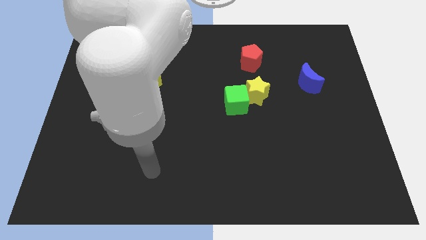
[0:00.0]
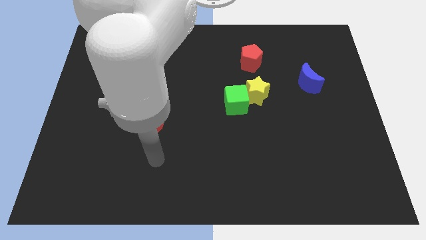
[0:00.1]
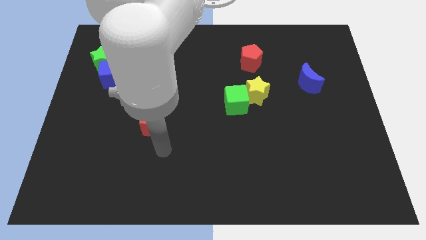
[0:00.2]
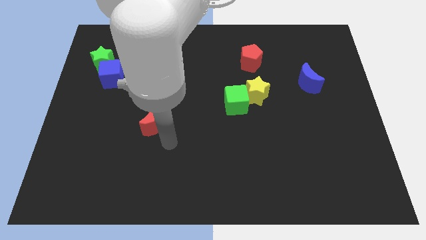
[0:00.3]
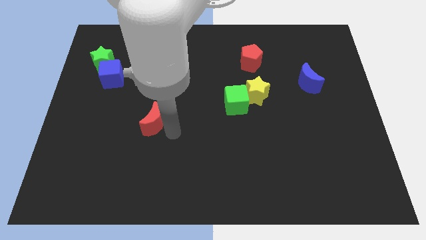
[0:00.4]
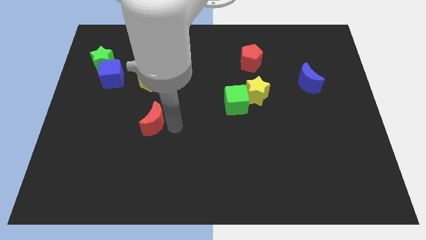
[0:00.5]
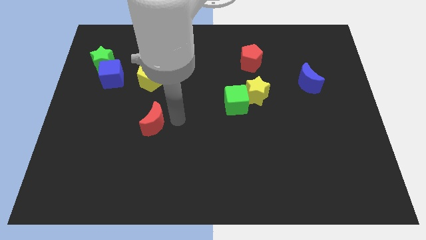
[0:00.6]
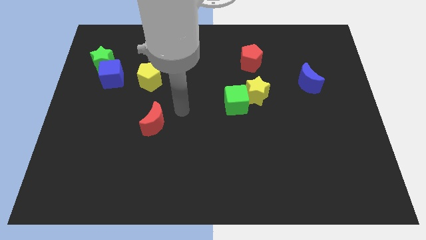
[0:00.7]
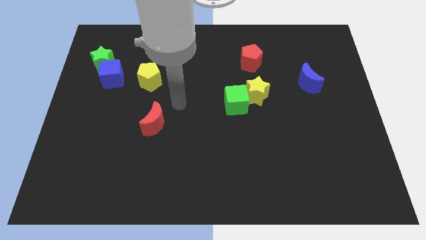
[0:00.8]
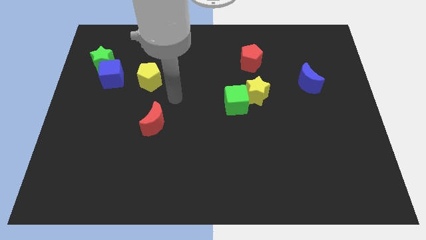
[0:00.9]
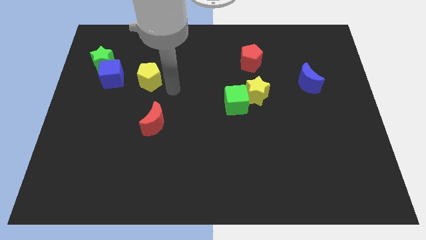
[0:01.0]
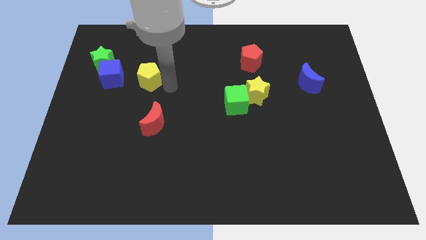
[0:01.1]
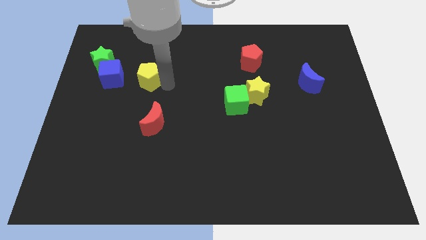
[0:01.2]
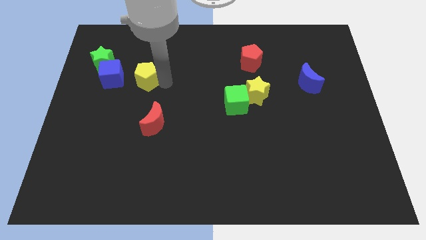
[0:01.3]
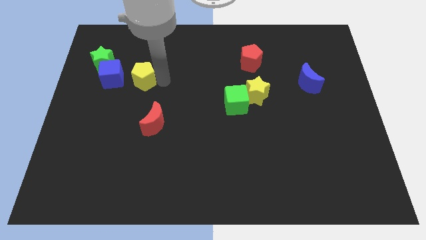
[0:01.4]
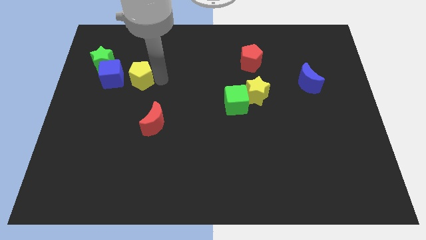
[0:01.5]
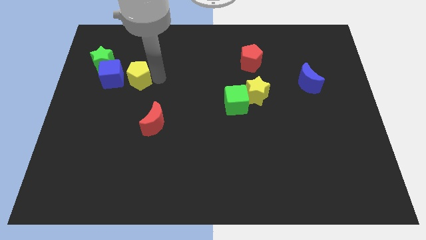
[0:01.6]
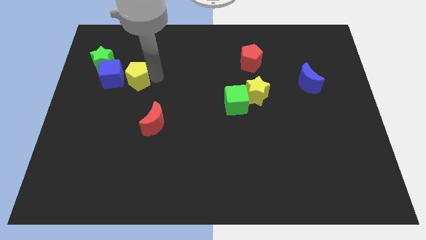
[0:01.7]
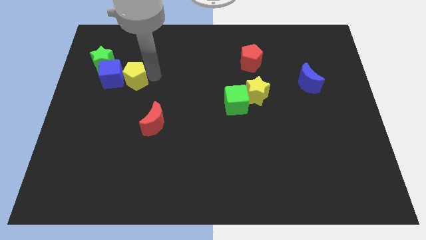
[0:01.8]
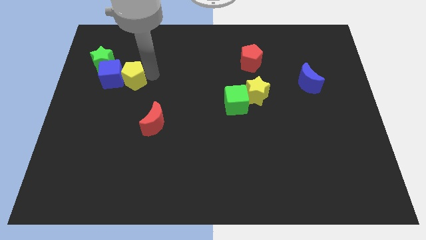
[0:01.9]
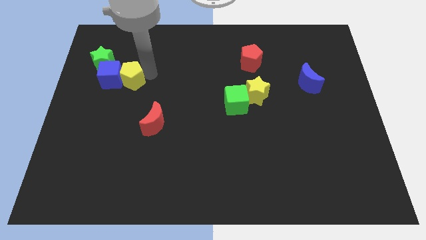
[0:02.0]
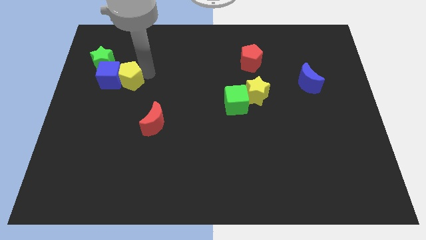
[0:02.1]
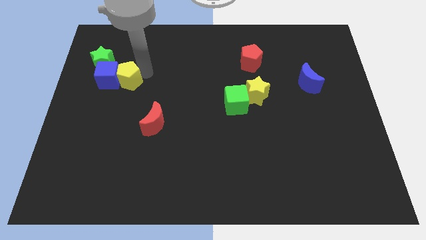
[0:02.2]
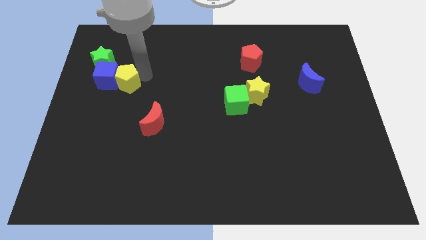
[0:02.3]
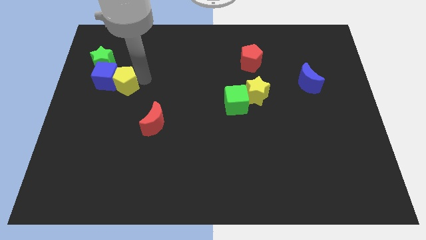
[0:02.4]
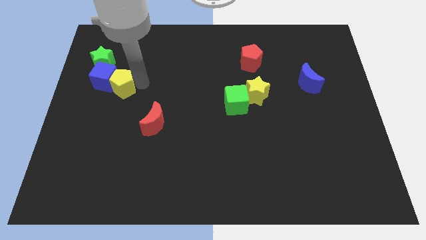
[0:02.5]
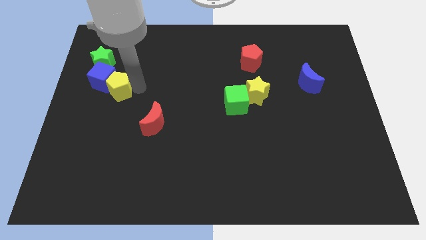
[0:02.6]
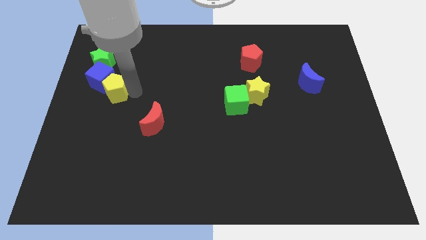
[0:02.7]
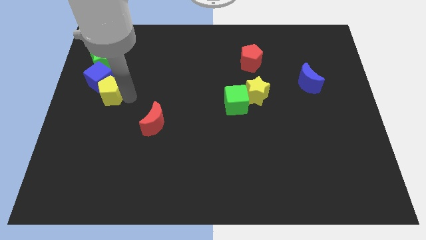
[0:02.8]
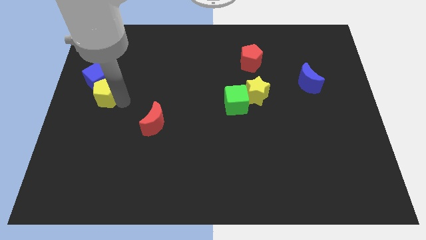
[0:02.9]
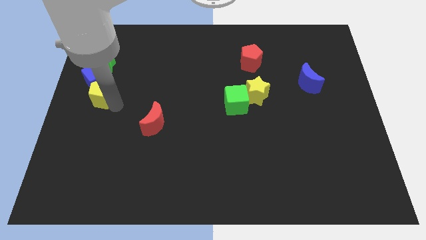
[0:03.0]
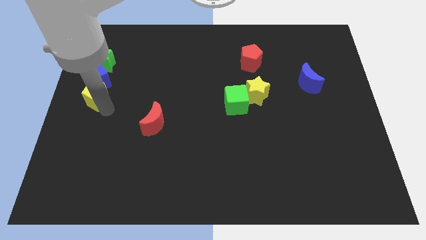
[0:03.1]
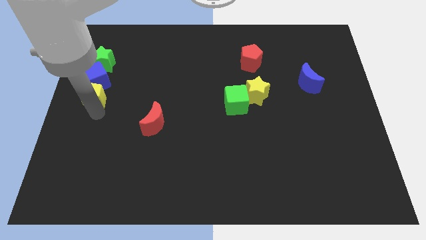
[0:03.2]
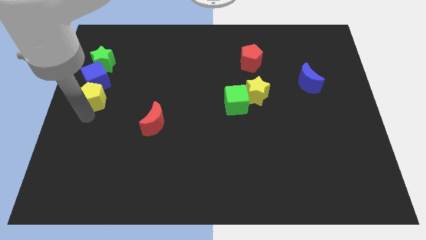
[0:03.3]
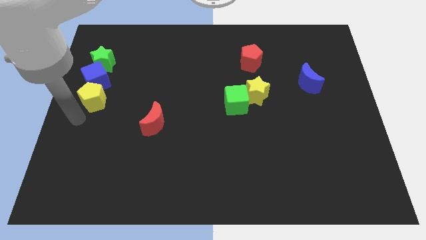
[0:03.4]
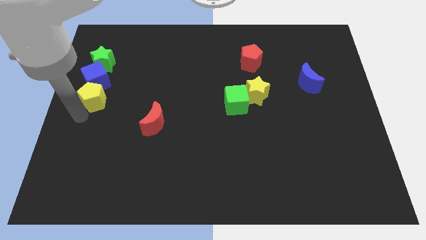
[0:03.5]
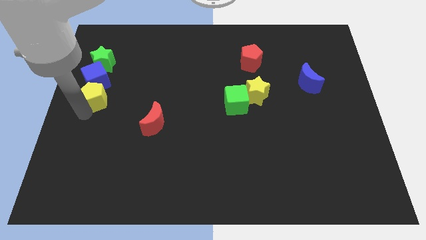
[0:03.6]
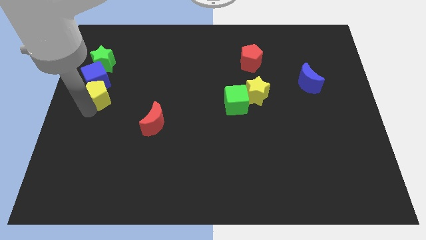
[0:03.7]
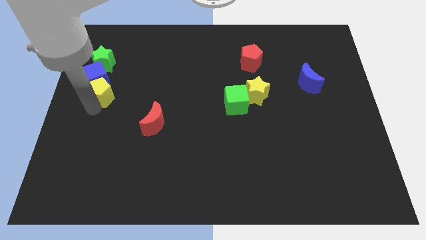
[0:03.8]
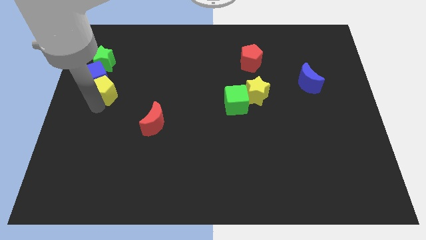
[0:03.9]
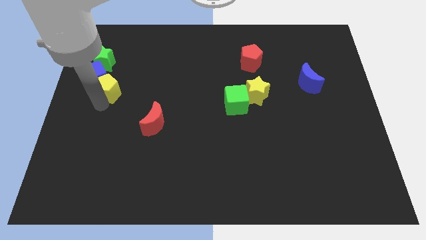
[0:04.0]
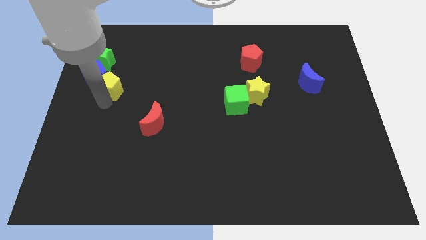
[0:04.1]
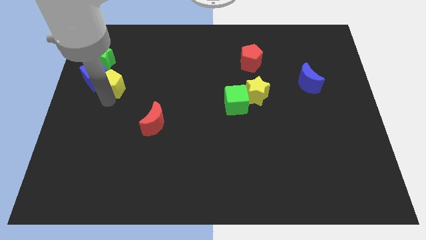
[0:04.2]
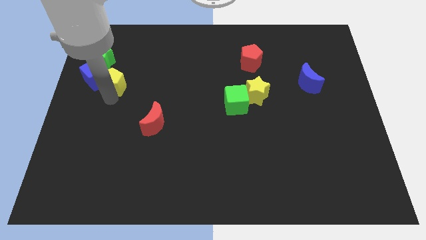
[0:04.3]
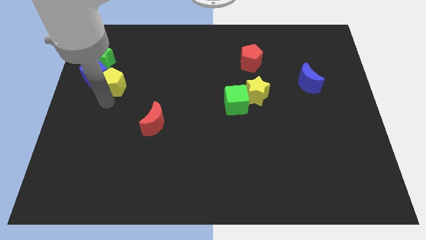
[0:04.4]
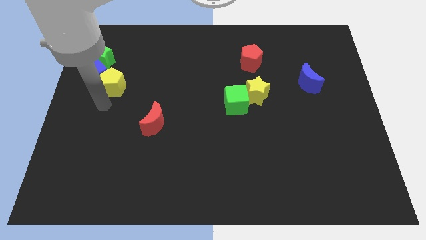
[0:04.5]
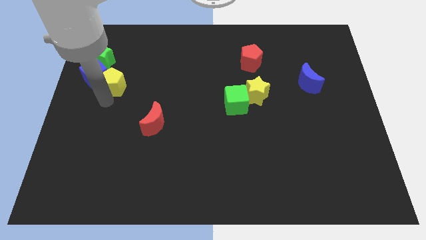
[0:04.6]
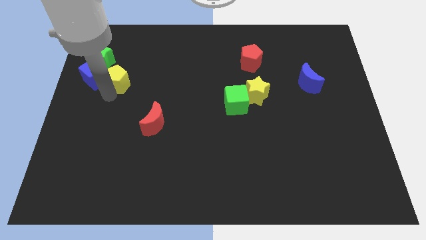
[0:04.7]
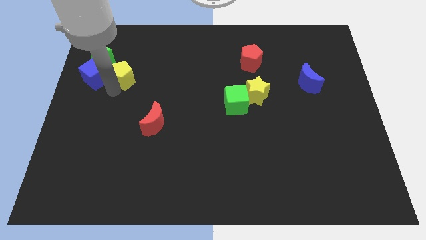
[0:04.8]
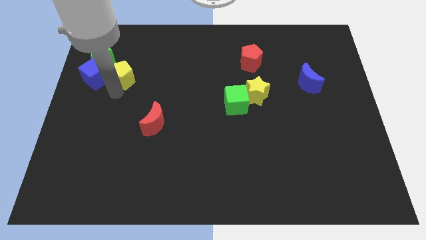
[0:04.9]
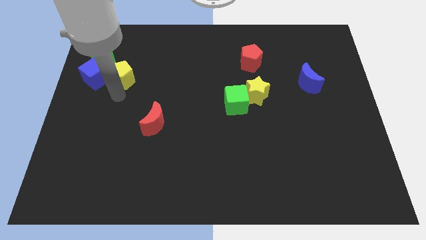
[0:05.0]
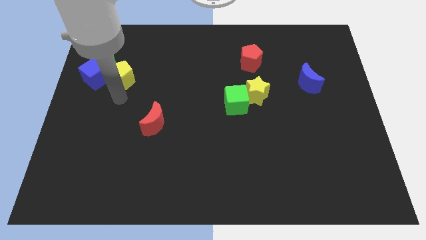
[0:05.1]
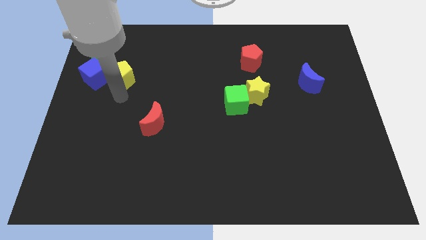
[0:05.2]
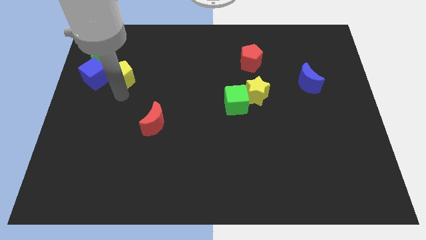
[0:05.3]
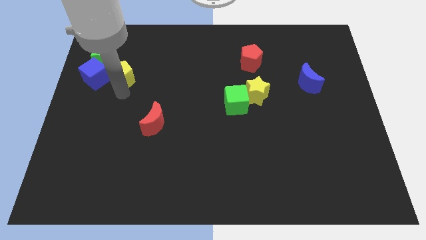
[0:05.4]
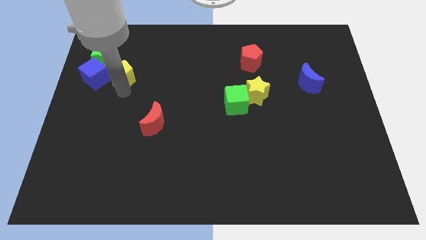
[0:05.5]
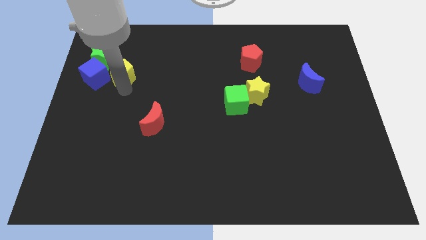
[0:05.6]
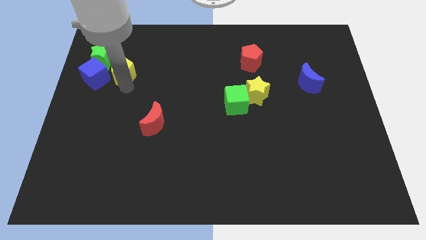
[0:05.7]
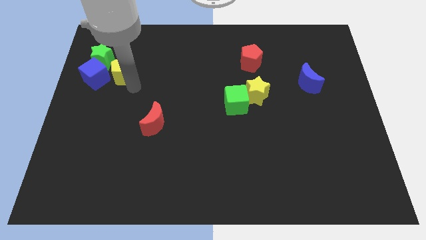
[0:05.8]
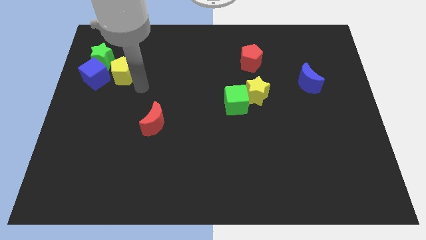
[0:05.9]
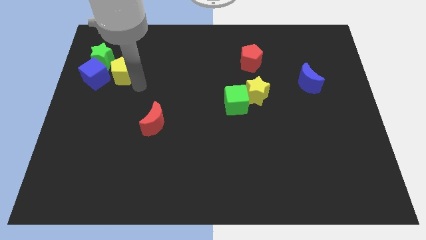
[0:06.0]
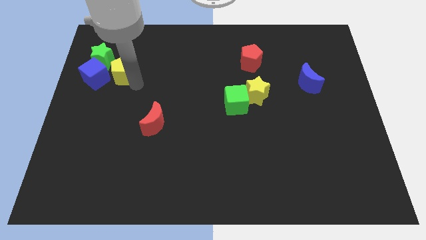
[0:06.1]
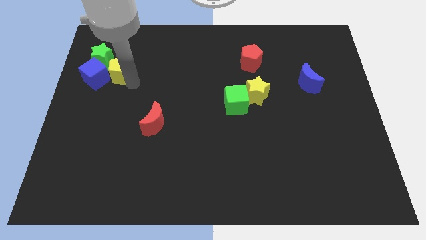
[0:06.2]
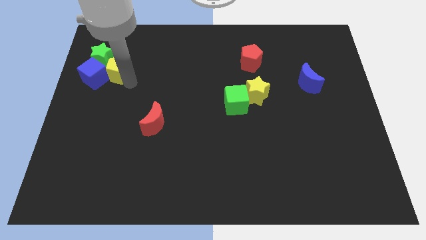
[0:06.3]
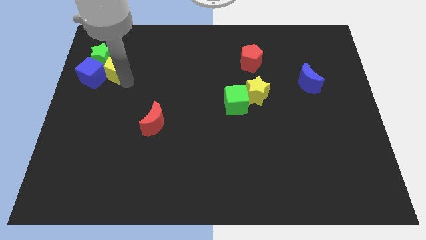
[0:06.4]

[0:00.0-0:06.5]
put the yellow pentagon close to the green star

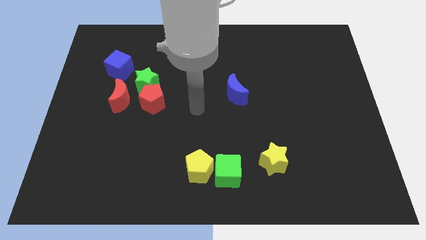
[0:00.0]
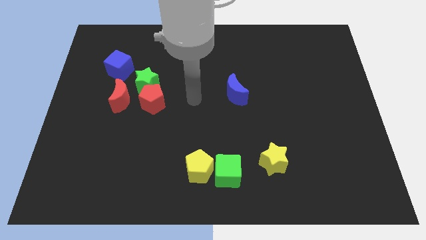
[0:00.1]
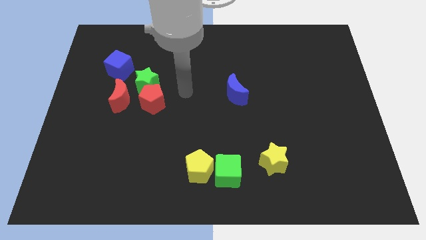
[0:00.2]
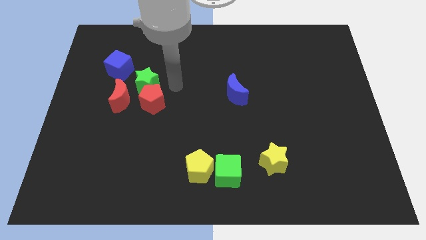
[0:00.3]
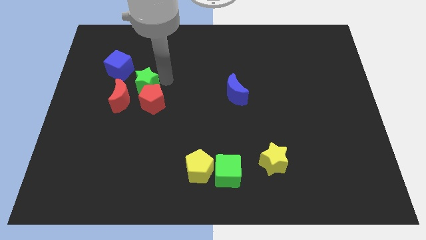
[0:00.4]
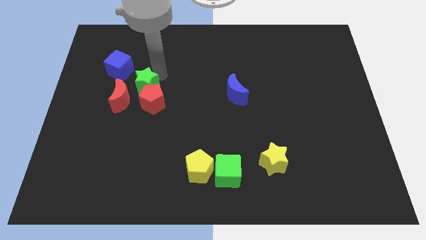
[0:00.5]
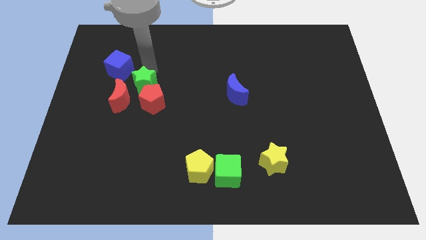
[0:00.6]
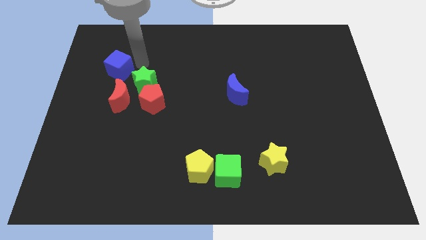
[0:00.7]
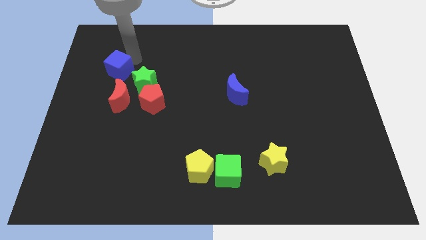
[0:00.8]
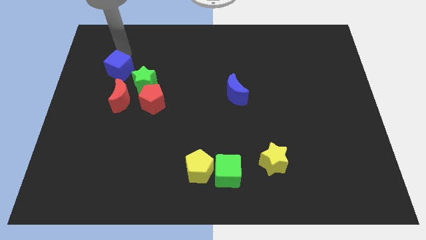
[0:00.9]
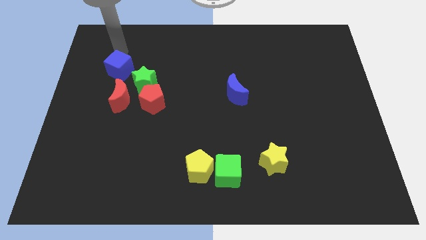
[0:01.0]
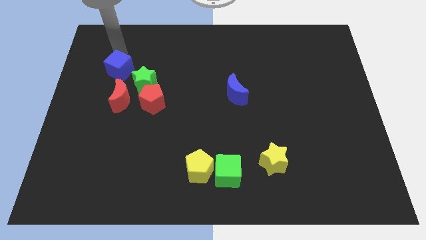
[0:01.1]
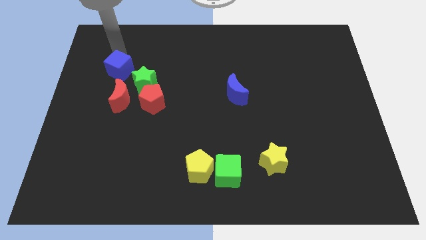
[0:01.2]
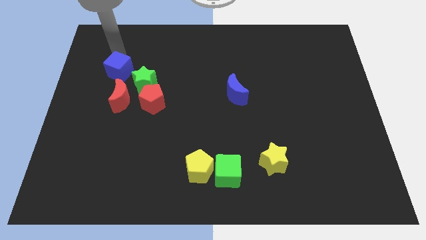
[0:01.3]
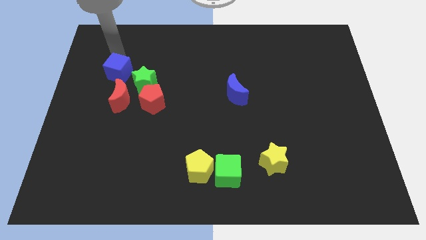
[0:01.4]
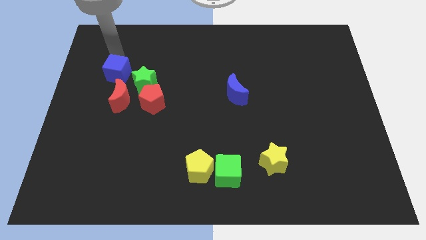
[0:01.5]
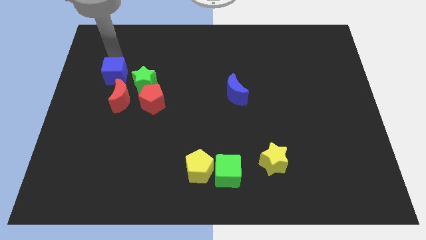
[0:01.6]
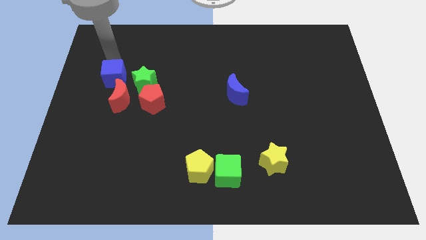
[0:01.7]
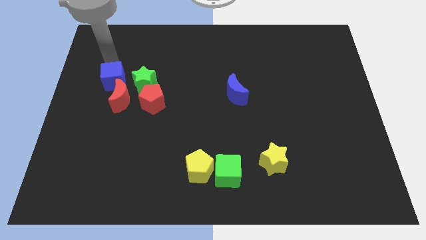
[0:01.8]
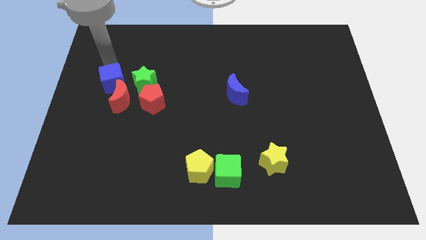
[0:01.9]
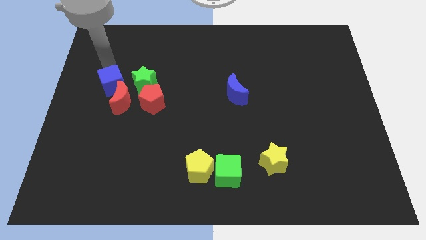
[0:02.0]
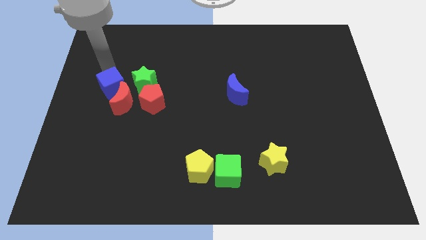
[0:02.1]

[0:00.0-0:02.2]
slide the blue cube close to the red moon
